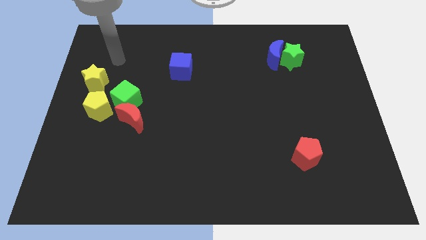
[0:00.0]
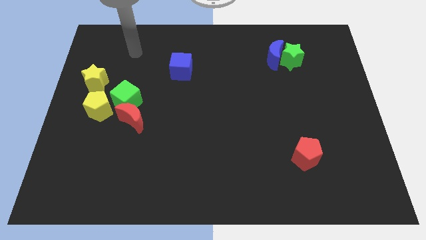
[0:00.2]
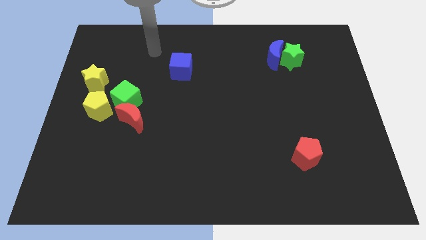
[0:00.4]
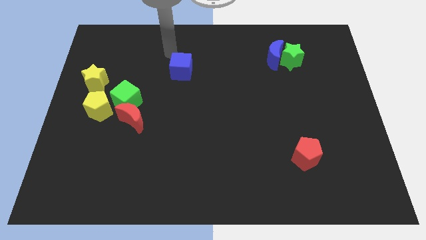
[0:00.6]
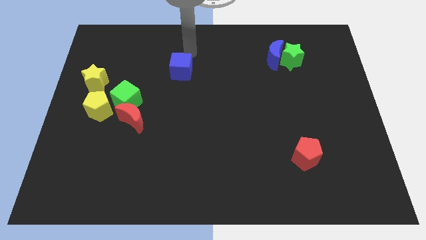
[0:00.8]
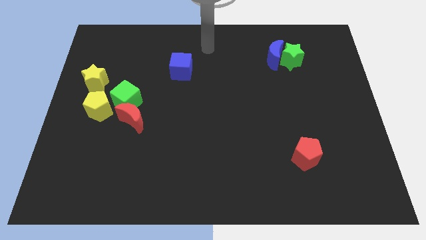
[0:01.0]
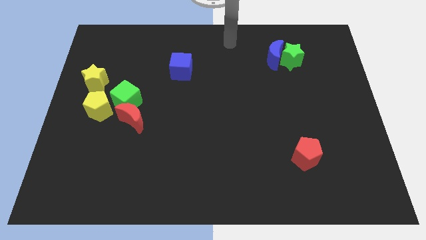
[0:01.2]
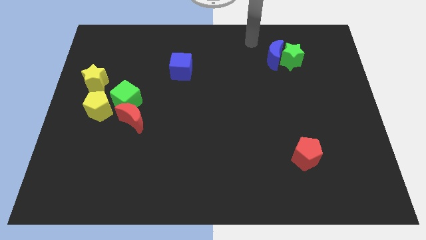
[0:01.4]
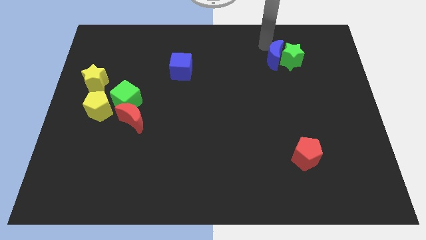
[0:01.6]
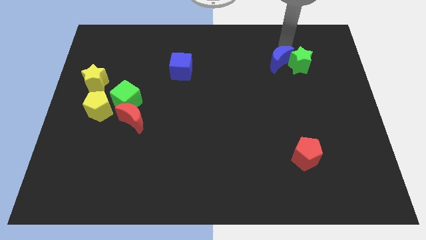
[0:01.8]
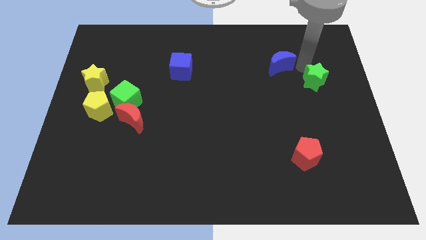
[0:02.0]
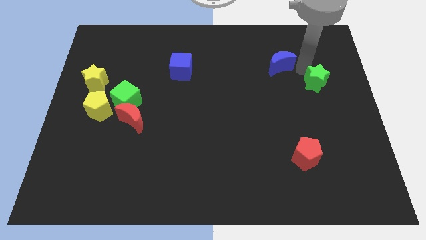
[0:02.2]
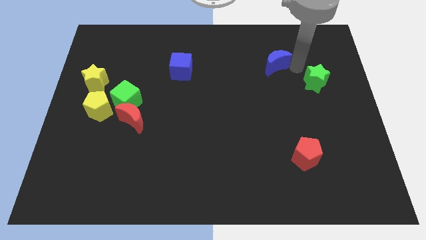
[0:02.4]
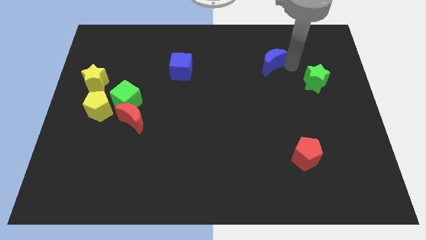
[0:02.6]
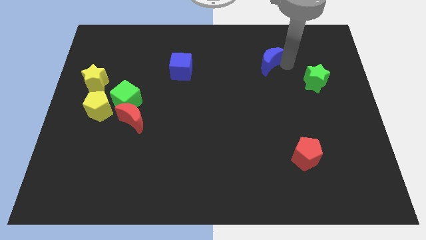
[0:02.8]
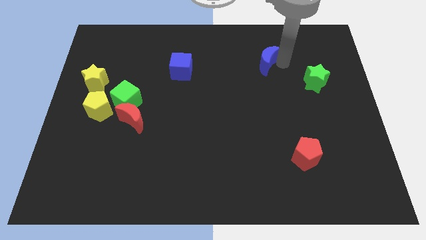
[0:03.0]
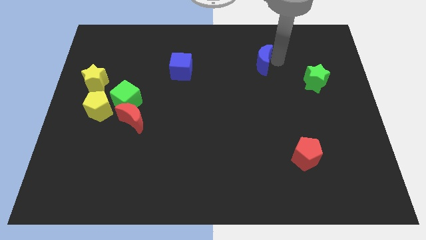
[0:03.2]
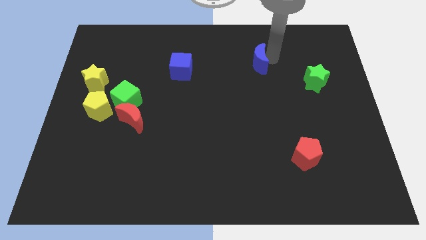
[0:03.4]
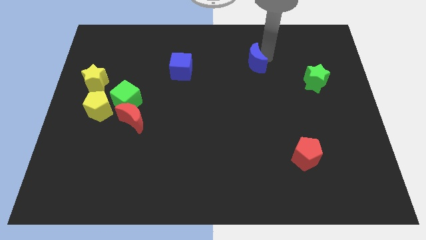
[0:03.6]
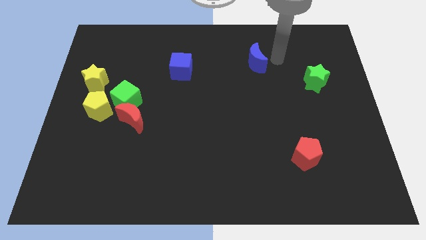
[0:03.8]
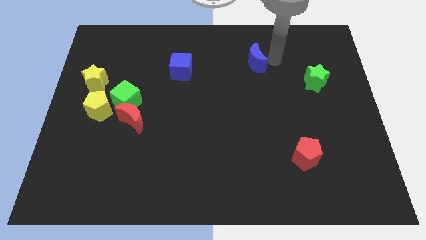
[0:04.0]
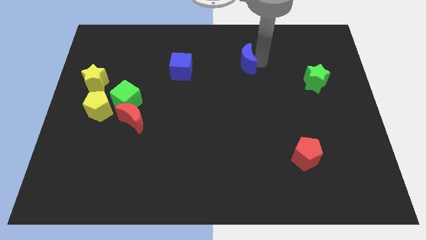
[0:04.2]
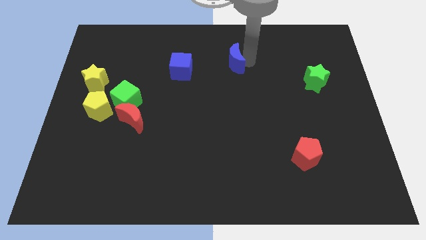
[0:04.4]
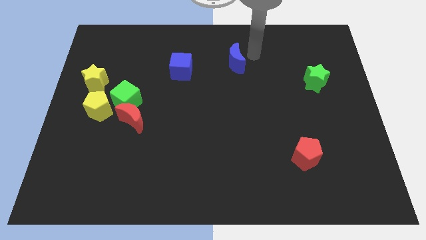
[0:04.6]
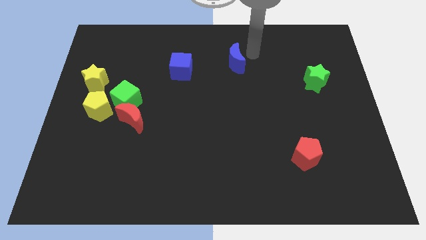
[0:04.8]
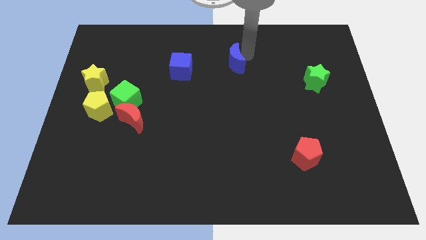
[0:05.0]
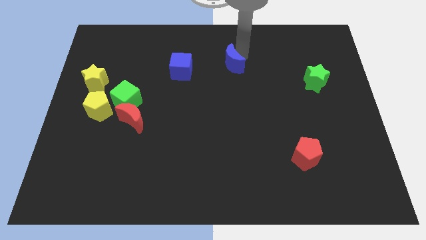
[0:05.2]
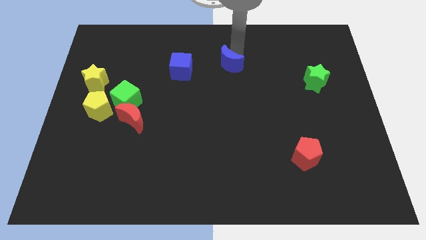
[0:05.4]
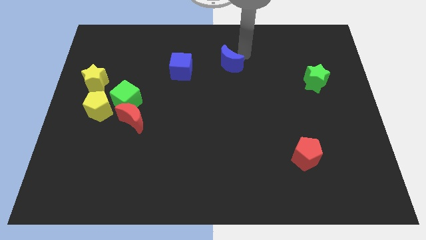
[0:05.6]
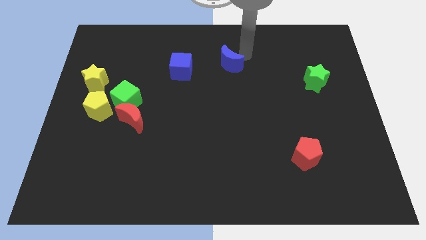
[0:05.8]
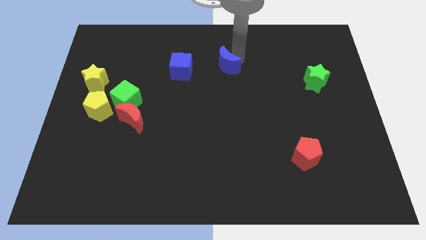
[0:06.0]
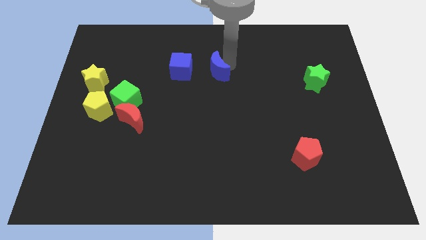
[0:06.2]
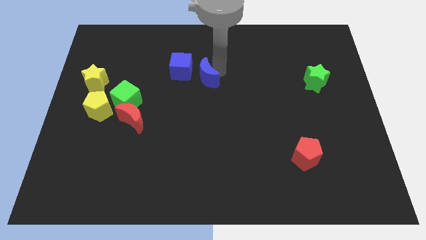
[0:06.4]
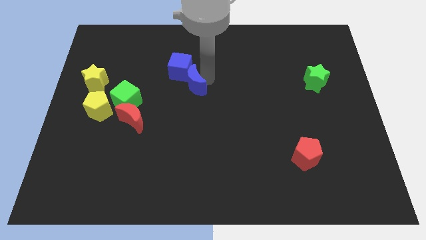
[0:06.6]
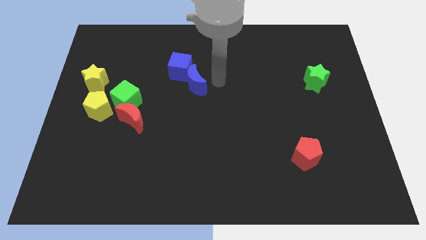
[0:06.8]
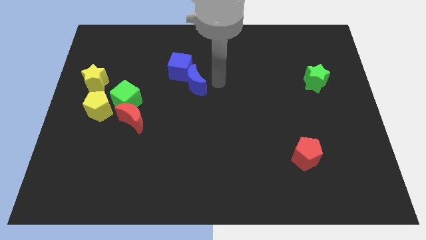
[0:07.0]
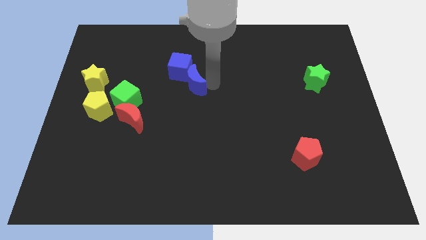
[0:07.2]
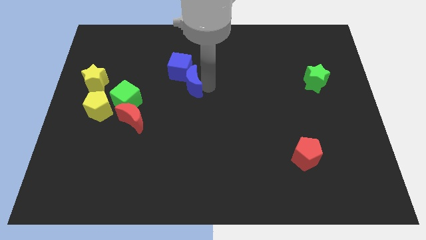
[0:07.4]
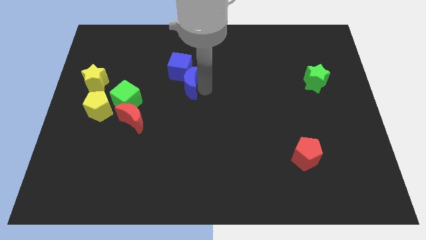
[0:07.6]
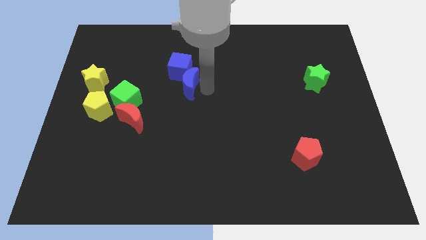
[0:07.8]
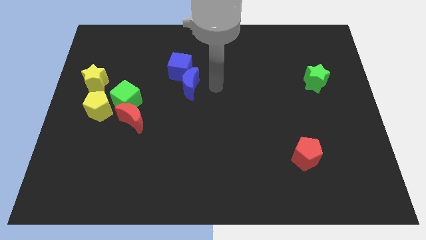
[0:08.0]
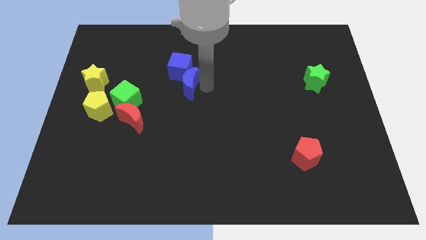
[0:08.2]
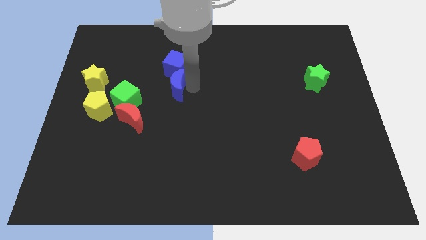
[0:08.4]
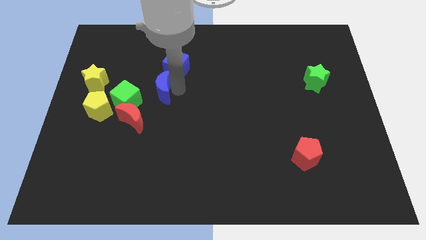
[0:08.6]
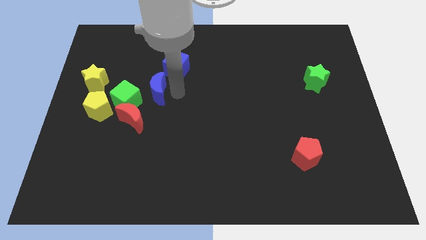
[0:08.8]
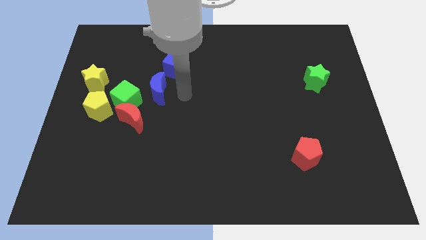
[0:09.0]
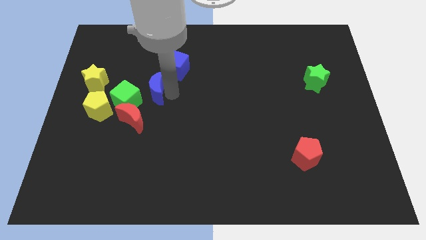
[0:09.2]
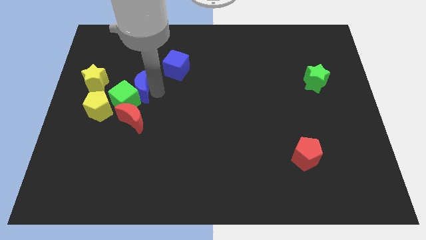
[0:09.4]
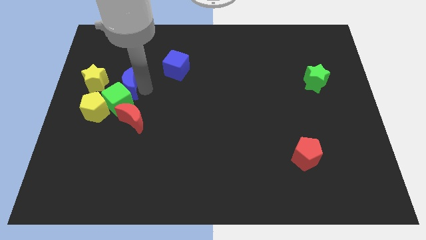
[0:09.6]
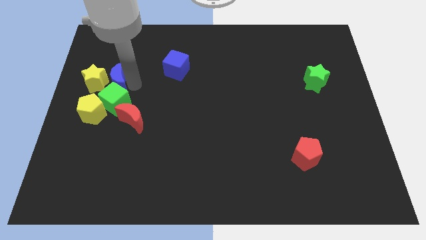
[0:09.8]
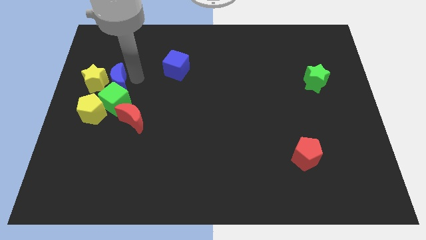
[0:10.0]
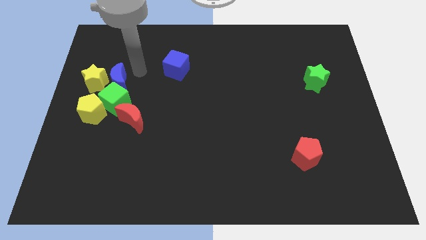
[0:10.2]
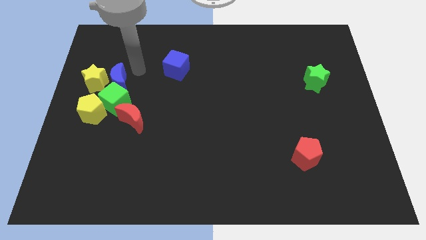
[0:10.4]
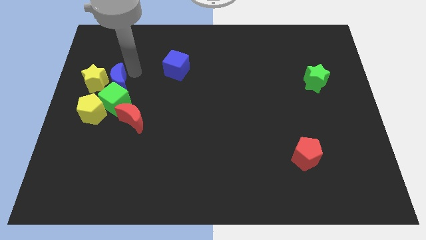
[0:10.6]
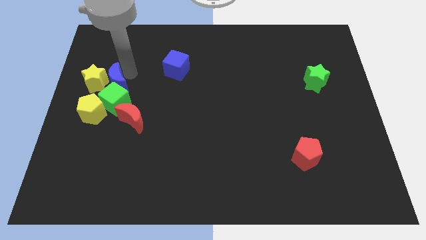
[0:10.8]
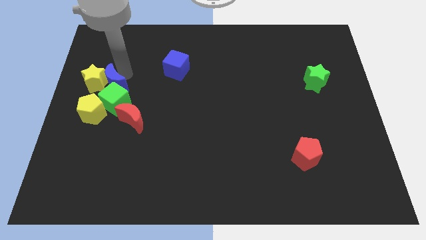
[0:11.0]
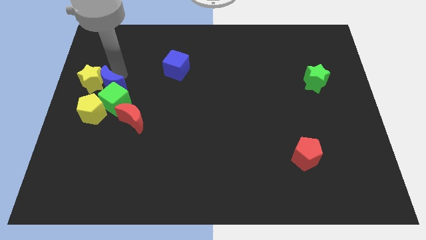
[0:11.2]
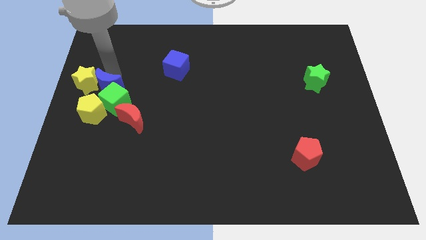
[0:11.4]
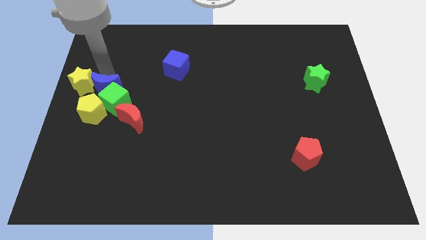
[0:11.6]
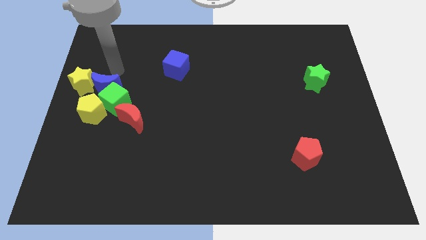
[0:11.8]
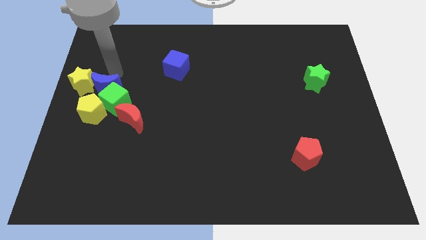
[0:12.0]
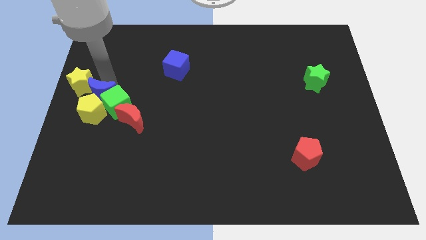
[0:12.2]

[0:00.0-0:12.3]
move the blue moon close to the yellow pentagon
